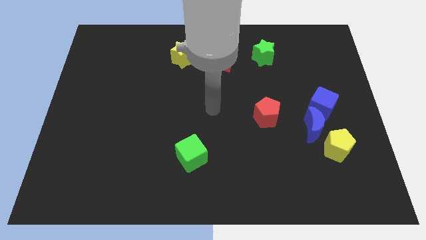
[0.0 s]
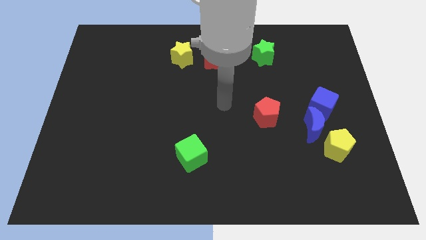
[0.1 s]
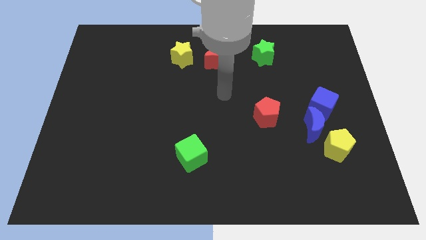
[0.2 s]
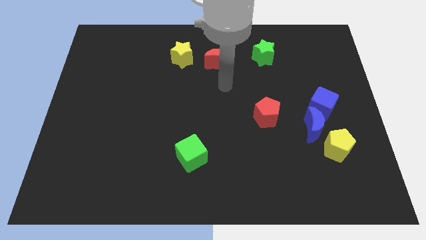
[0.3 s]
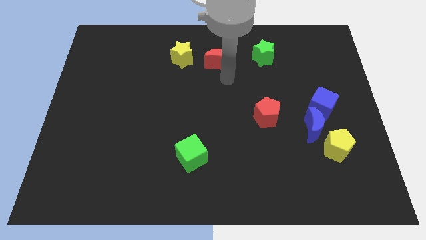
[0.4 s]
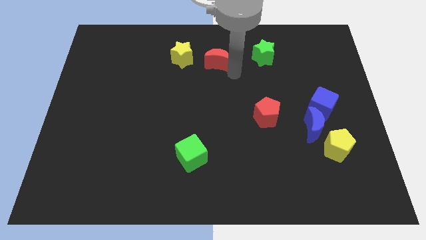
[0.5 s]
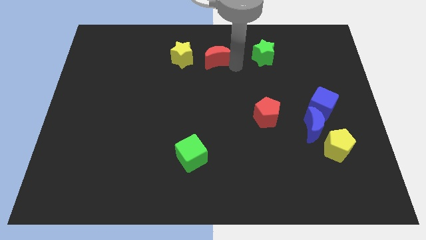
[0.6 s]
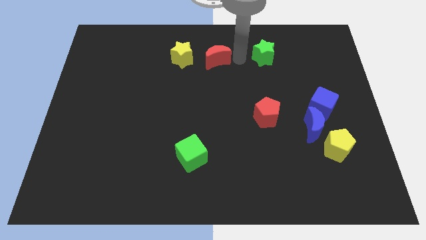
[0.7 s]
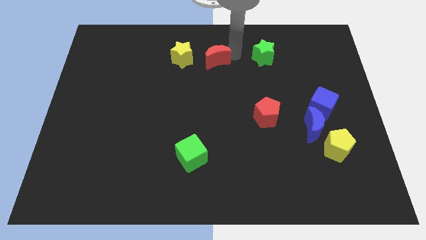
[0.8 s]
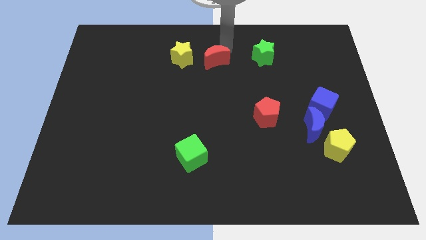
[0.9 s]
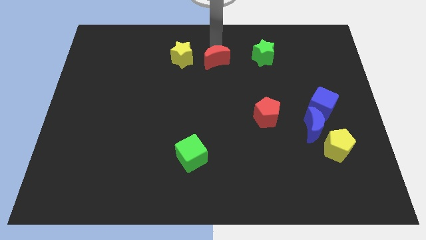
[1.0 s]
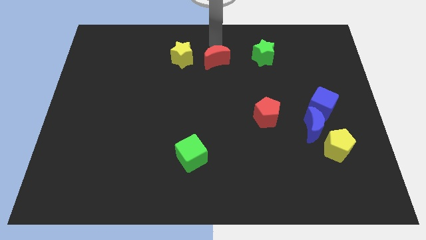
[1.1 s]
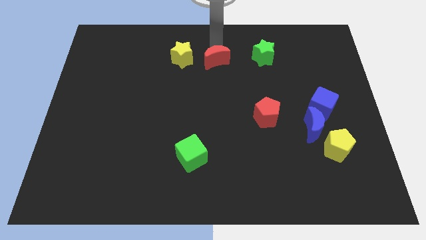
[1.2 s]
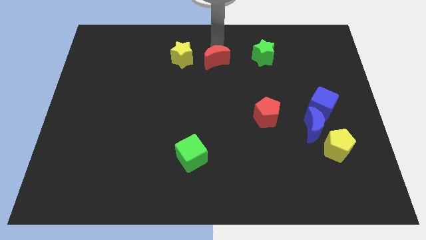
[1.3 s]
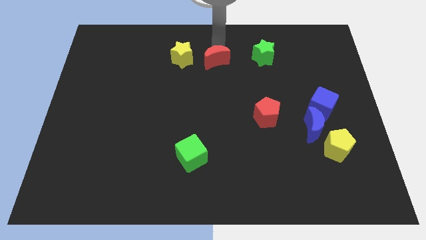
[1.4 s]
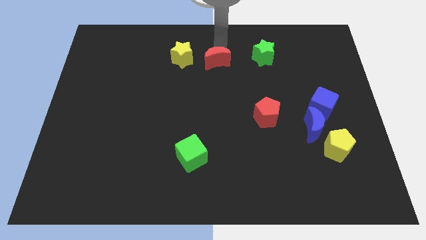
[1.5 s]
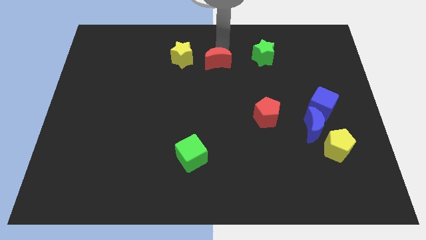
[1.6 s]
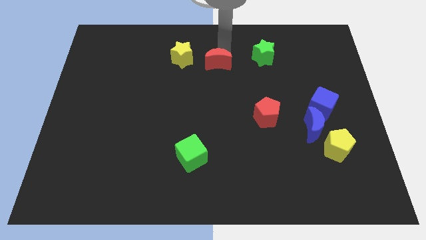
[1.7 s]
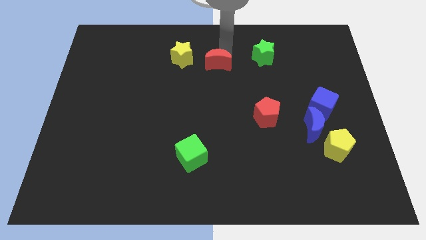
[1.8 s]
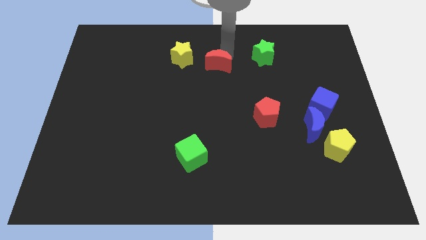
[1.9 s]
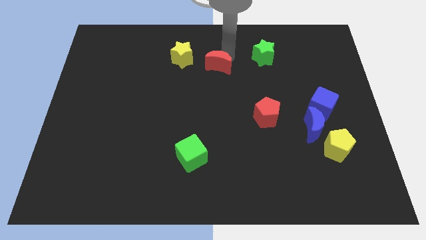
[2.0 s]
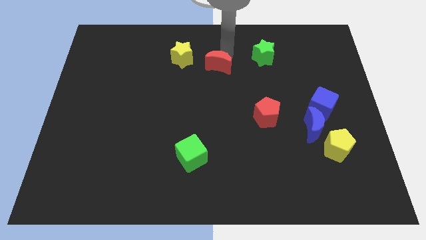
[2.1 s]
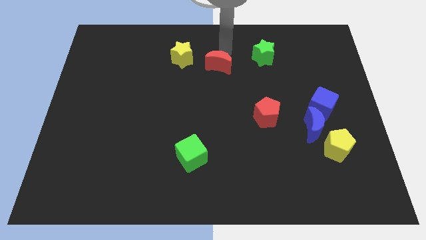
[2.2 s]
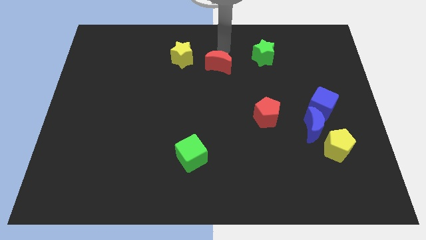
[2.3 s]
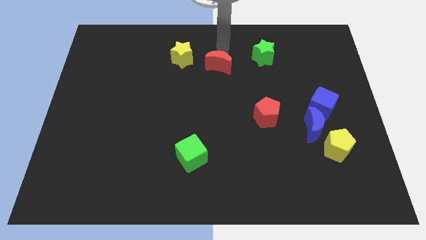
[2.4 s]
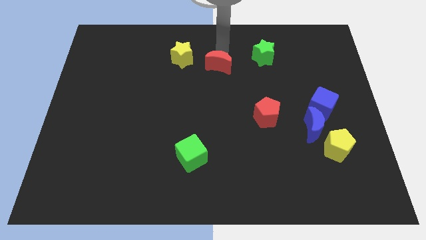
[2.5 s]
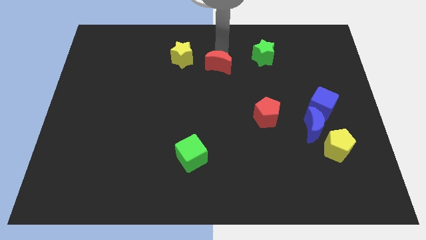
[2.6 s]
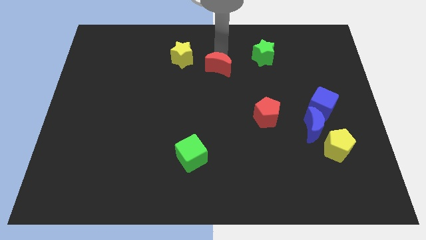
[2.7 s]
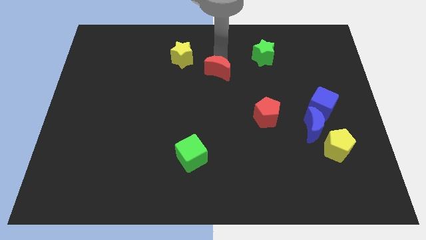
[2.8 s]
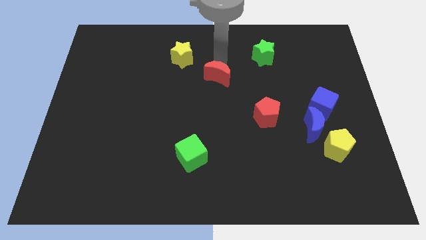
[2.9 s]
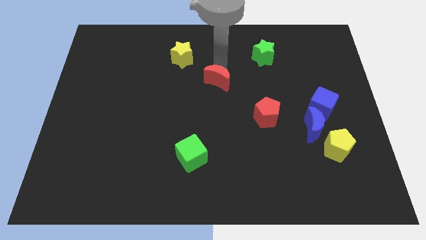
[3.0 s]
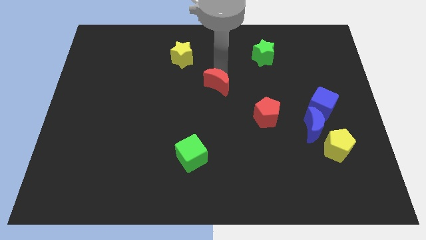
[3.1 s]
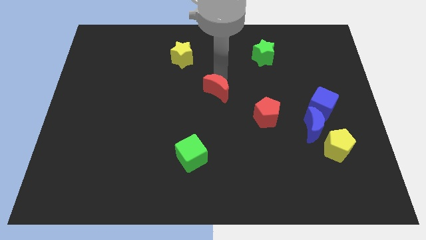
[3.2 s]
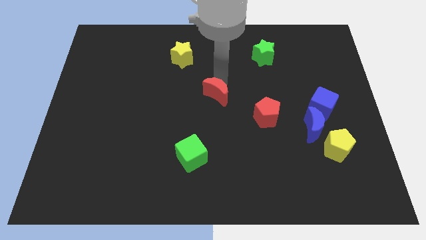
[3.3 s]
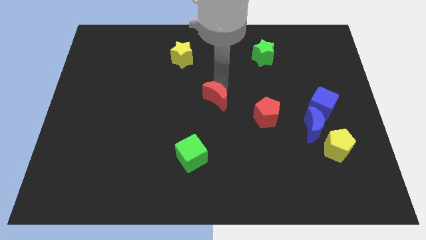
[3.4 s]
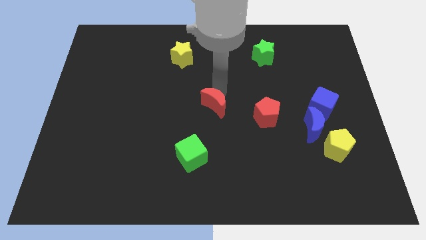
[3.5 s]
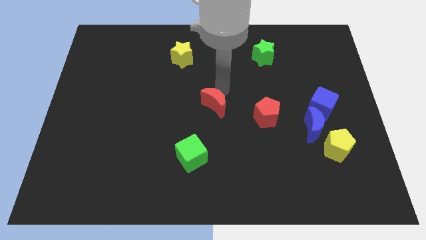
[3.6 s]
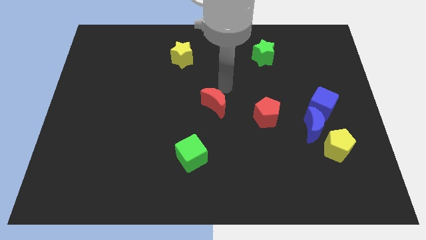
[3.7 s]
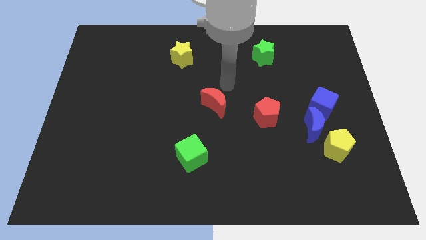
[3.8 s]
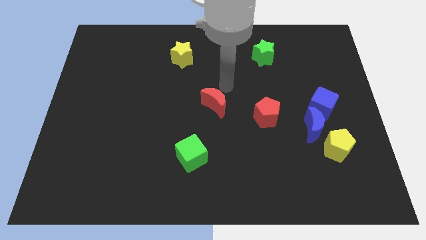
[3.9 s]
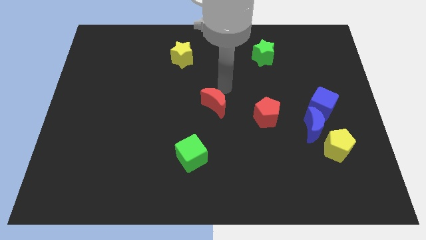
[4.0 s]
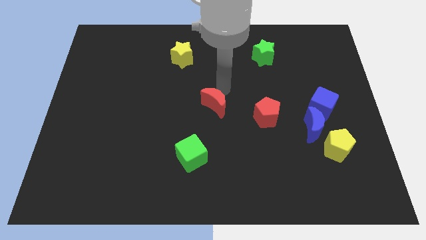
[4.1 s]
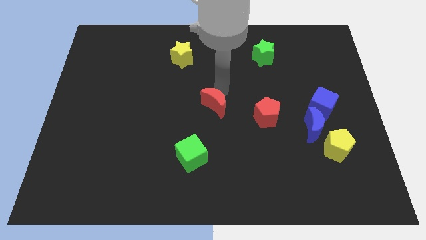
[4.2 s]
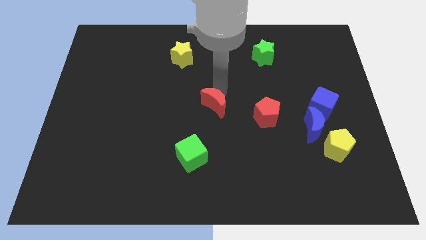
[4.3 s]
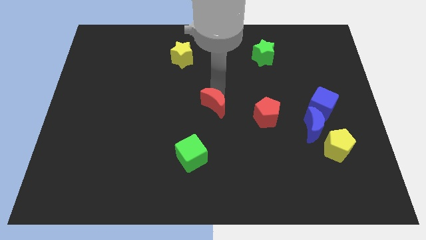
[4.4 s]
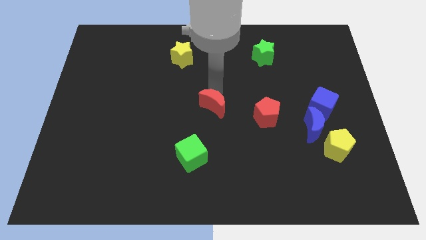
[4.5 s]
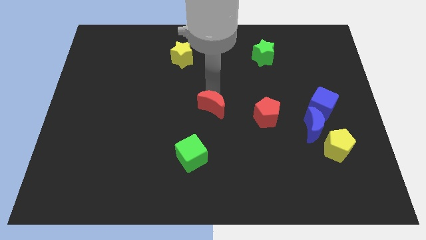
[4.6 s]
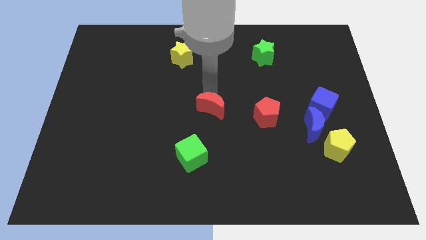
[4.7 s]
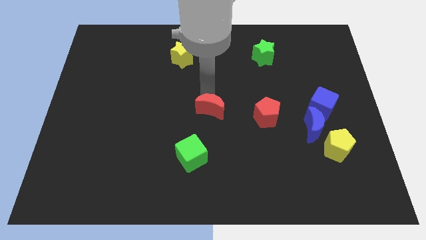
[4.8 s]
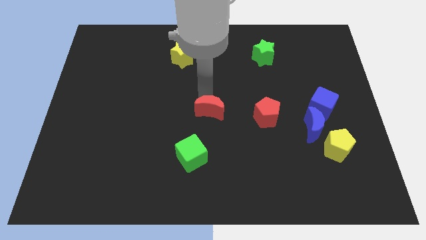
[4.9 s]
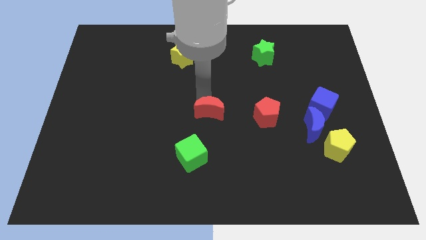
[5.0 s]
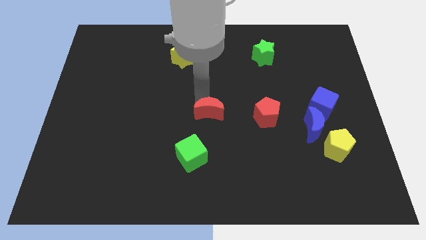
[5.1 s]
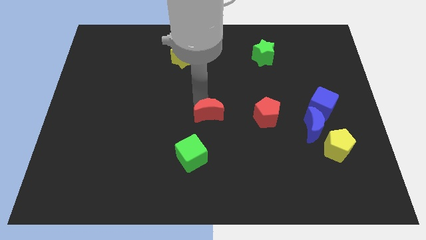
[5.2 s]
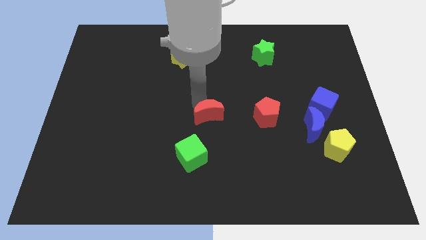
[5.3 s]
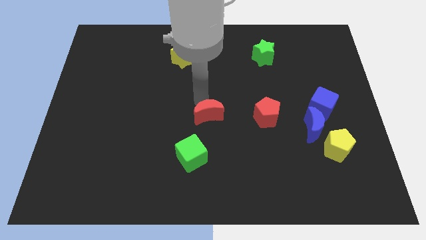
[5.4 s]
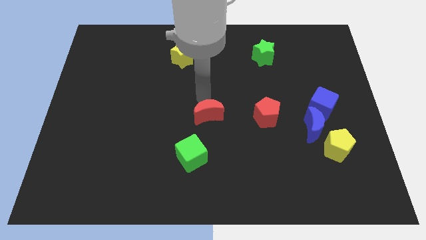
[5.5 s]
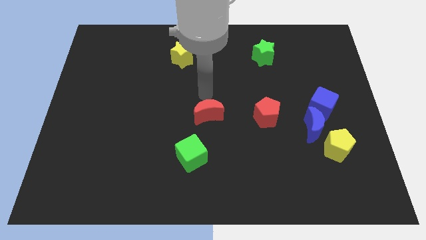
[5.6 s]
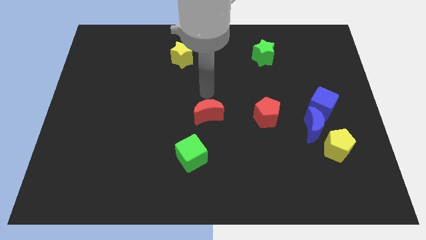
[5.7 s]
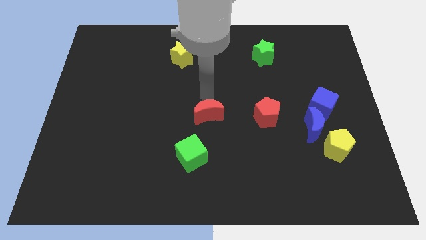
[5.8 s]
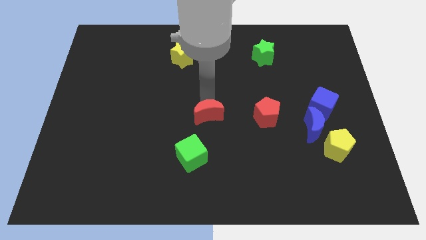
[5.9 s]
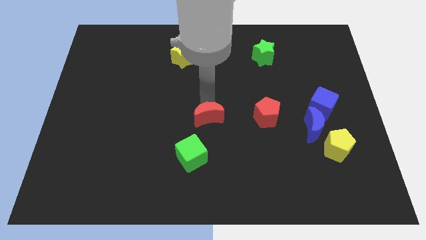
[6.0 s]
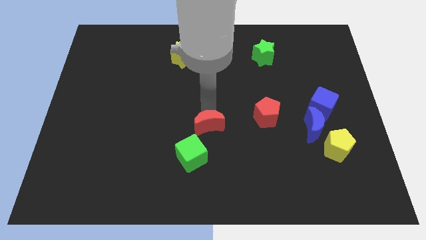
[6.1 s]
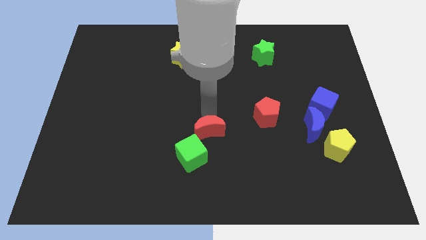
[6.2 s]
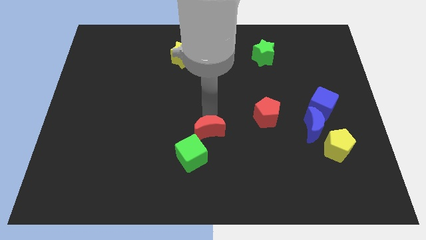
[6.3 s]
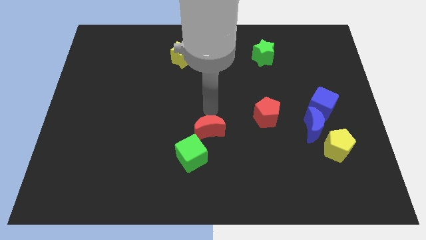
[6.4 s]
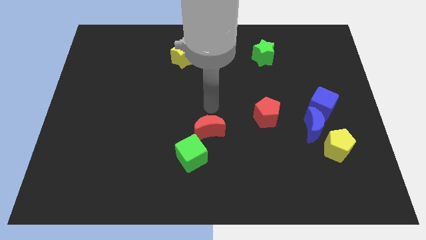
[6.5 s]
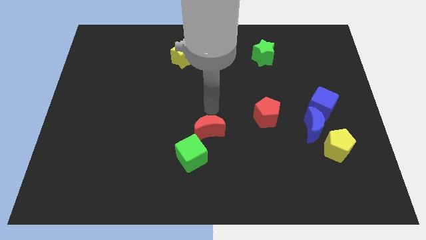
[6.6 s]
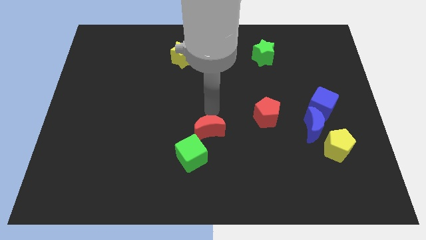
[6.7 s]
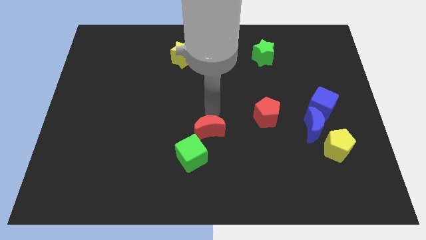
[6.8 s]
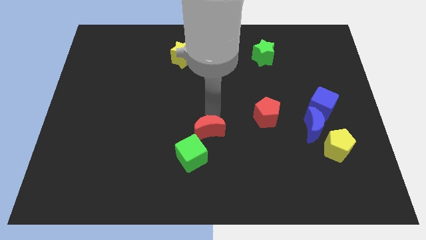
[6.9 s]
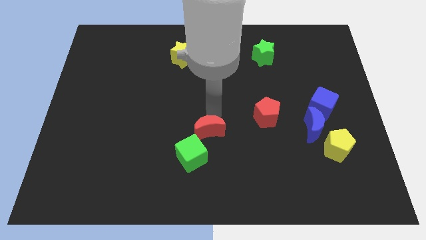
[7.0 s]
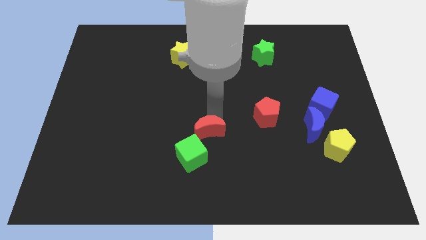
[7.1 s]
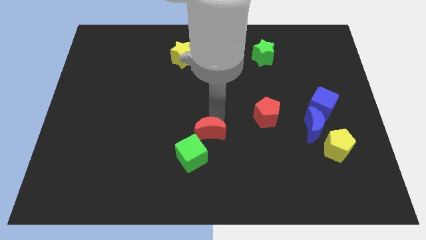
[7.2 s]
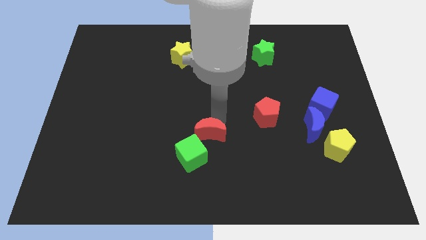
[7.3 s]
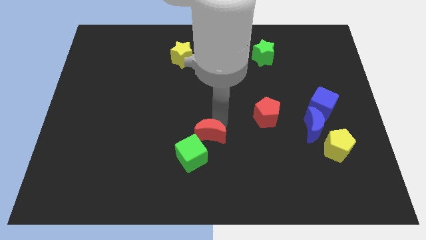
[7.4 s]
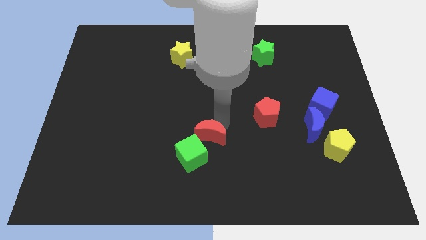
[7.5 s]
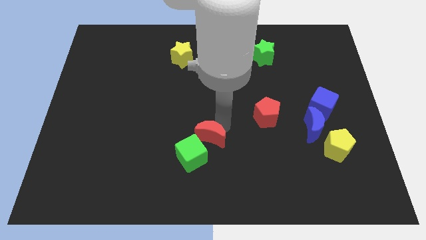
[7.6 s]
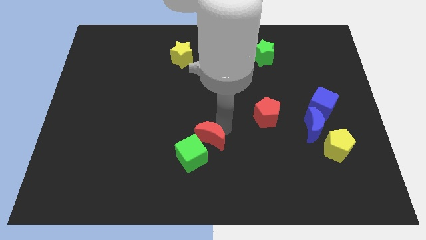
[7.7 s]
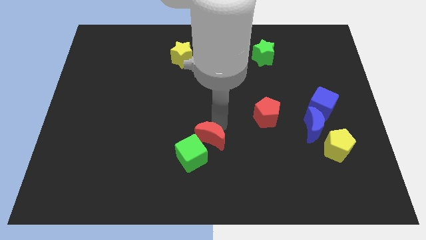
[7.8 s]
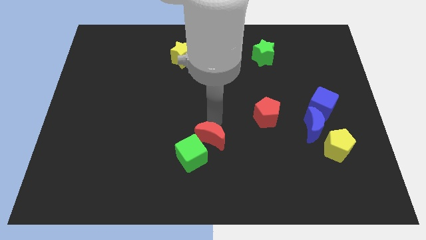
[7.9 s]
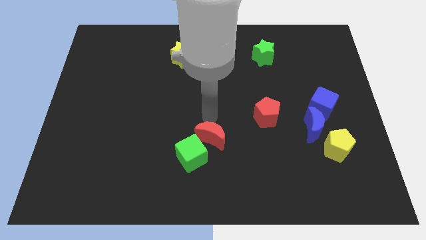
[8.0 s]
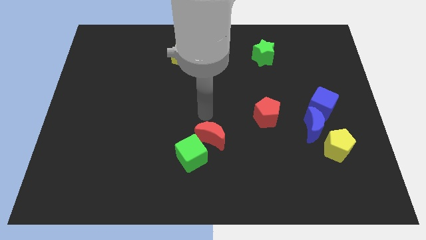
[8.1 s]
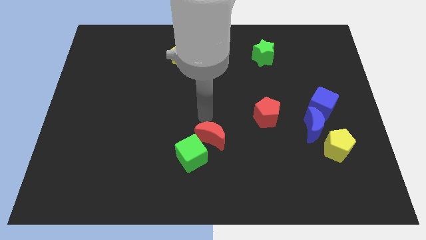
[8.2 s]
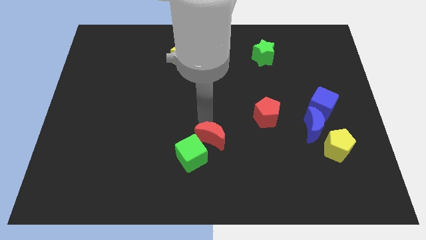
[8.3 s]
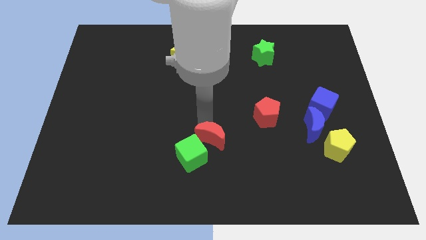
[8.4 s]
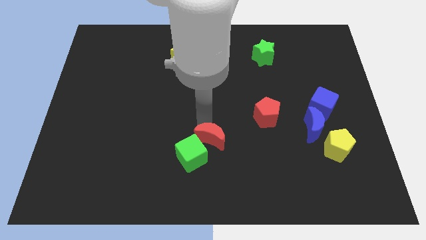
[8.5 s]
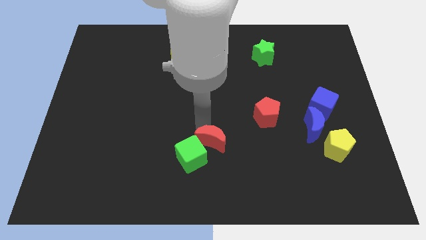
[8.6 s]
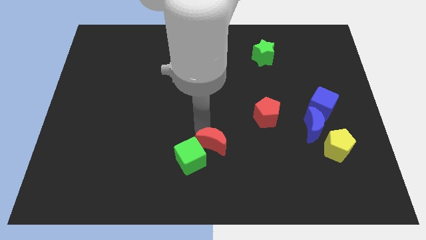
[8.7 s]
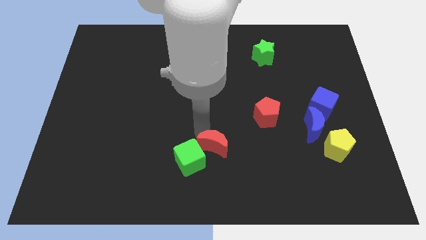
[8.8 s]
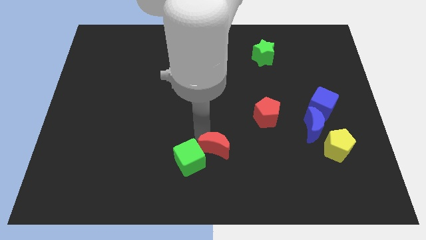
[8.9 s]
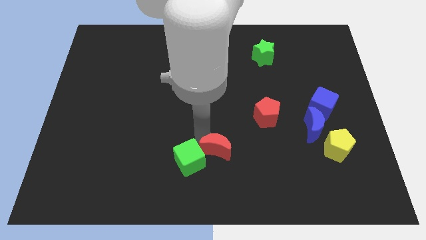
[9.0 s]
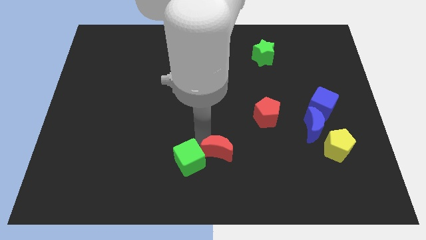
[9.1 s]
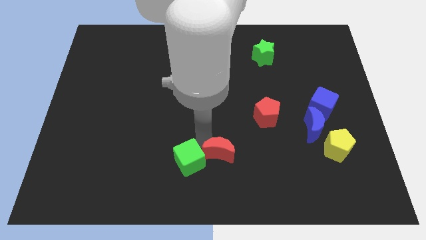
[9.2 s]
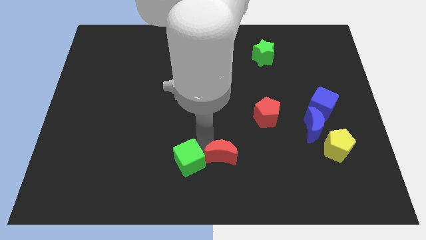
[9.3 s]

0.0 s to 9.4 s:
push the red moon to the bottom side
